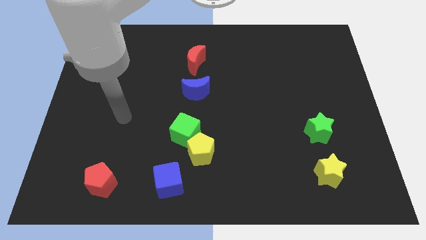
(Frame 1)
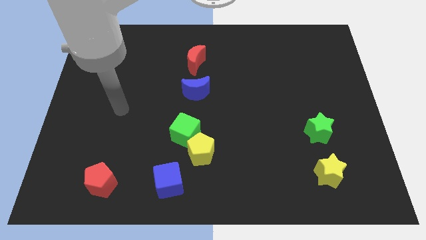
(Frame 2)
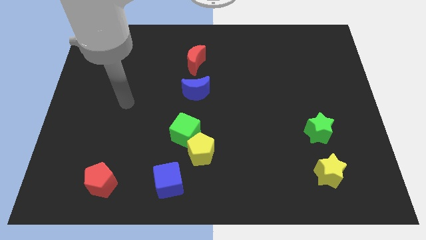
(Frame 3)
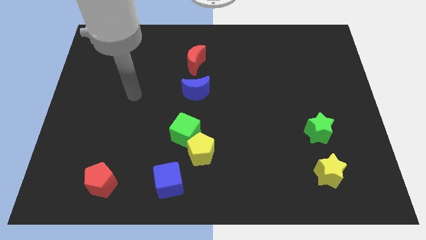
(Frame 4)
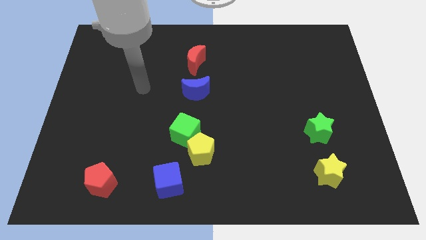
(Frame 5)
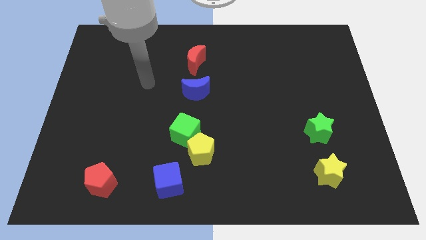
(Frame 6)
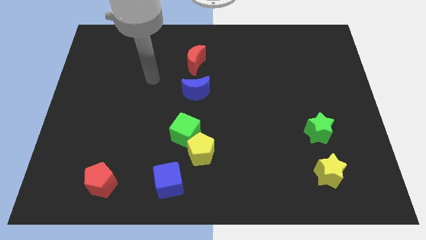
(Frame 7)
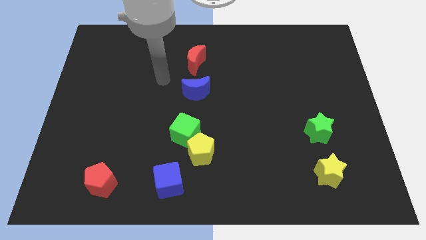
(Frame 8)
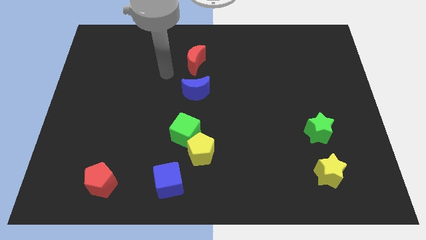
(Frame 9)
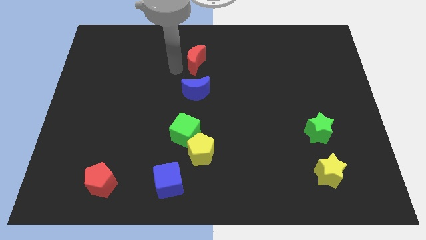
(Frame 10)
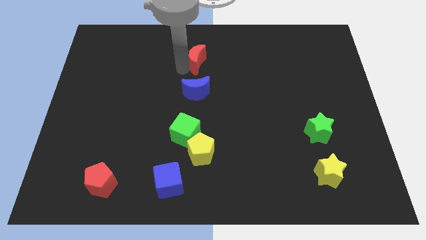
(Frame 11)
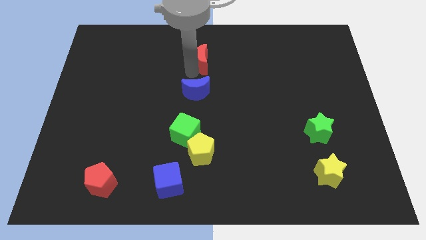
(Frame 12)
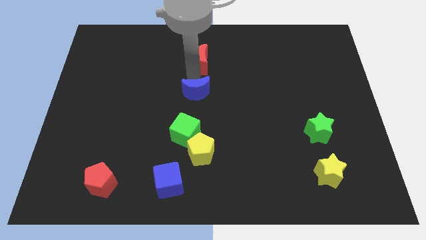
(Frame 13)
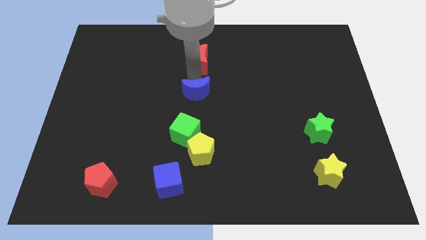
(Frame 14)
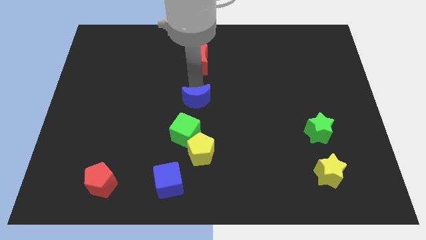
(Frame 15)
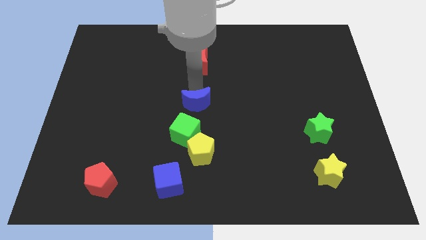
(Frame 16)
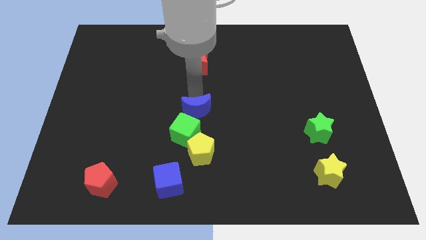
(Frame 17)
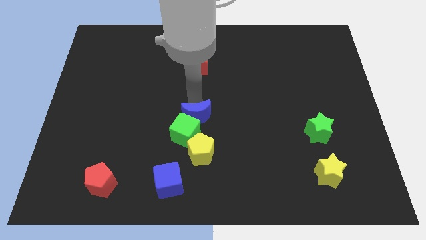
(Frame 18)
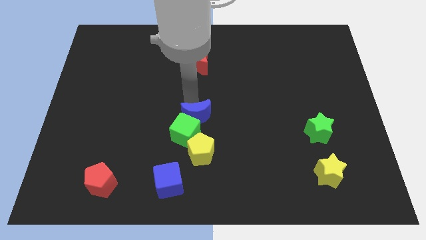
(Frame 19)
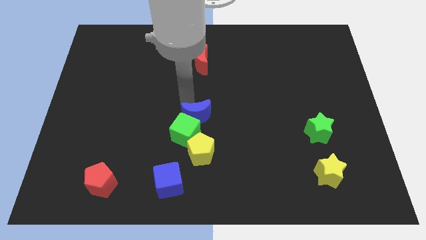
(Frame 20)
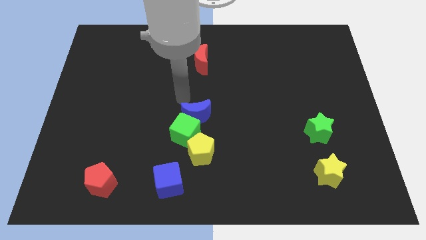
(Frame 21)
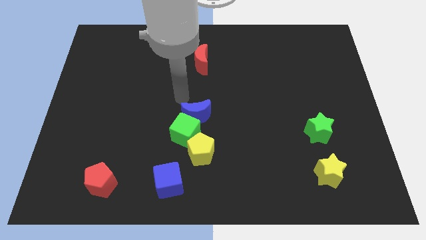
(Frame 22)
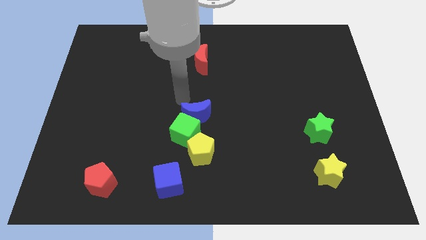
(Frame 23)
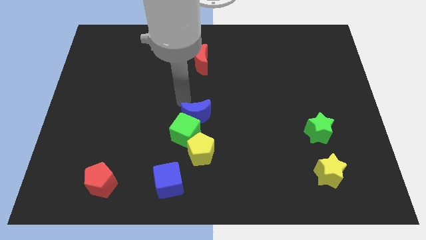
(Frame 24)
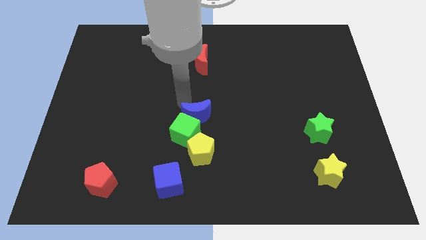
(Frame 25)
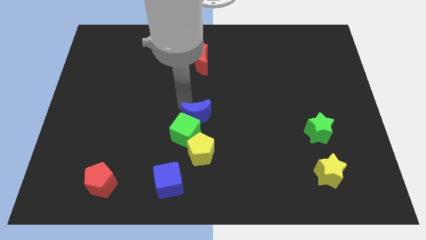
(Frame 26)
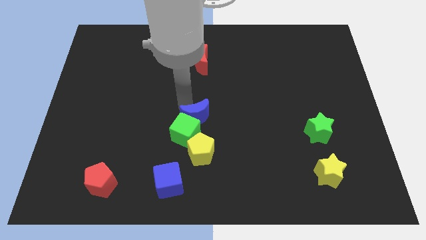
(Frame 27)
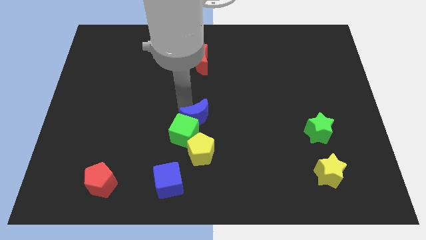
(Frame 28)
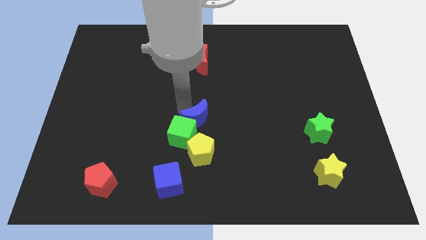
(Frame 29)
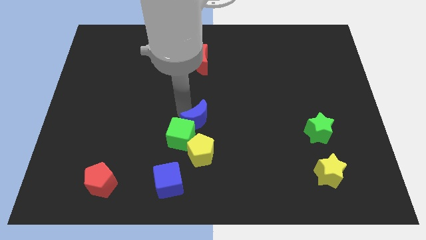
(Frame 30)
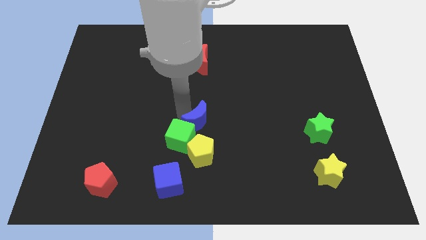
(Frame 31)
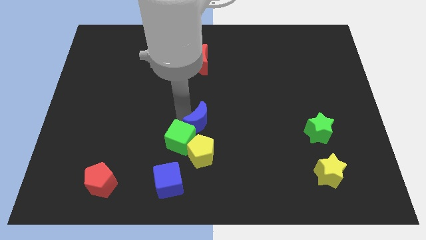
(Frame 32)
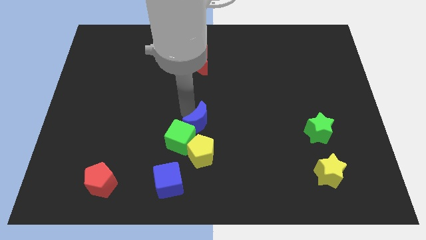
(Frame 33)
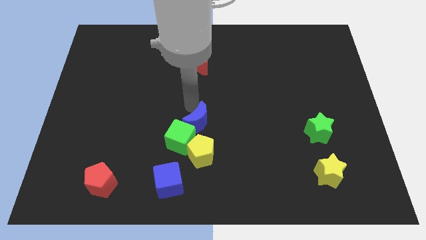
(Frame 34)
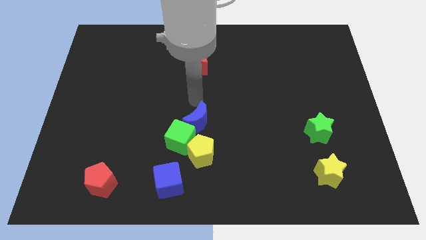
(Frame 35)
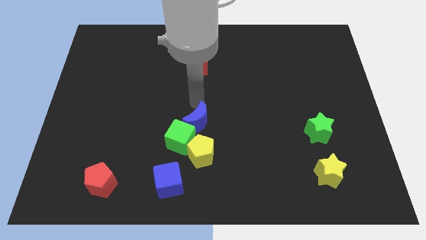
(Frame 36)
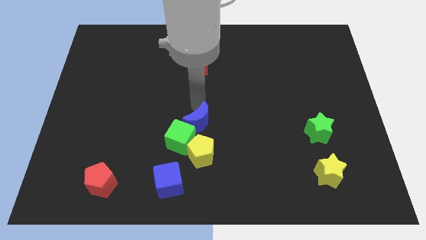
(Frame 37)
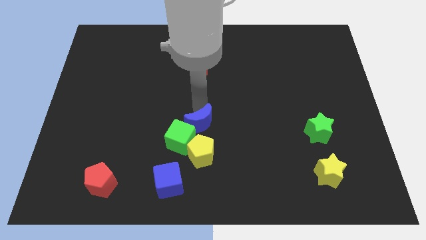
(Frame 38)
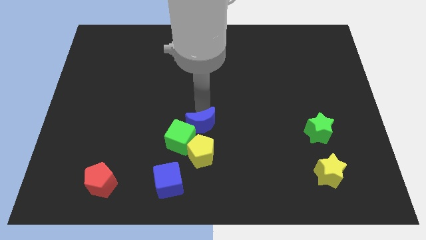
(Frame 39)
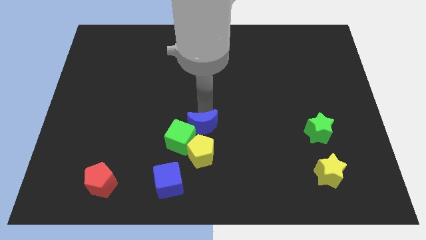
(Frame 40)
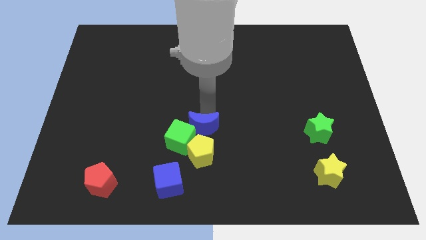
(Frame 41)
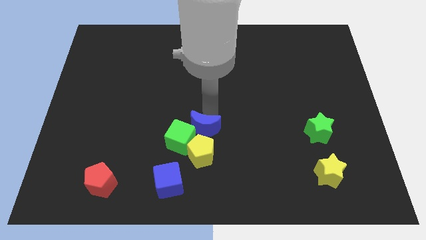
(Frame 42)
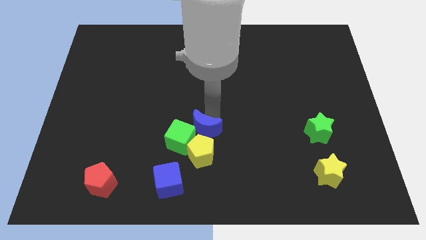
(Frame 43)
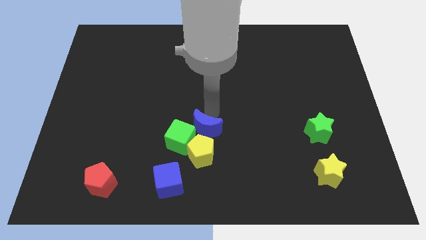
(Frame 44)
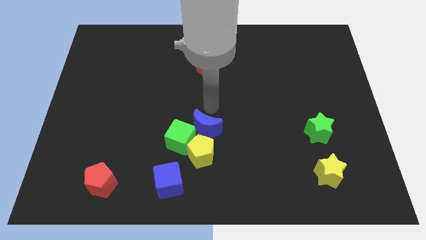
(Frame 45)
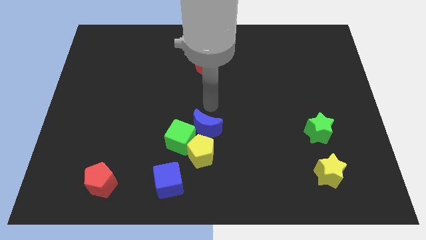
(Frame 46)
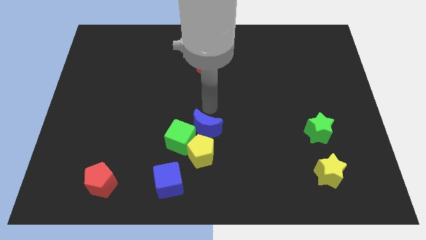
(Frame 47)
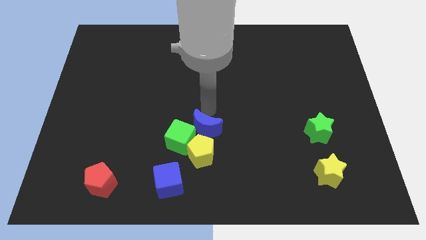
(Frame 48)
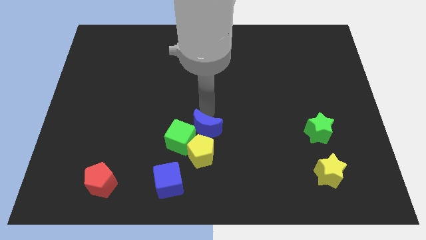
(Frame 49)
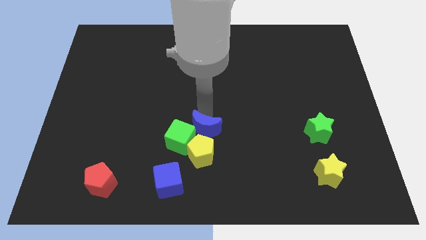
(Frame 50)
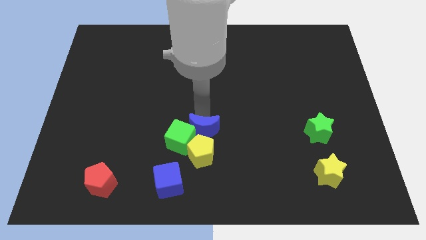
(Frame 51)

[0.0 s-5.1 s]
put the blue moon towards the yellow pentagon

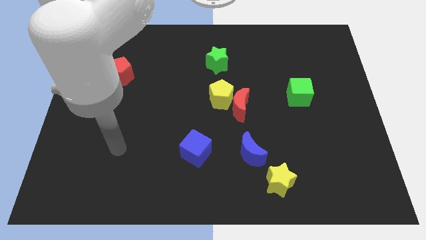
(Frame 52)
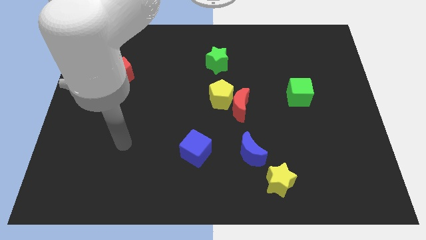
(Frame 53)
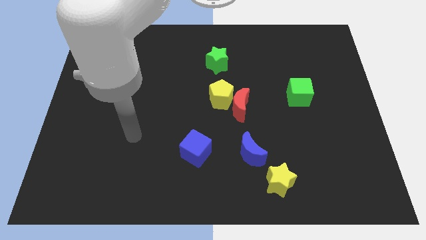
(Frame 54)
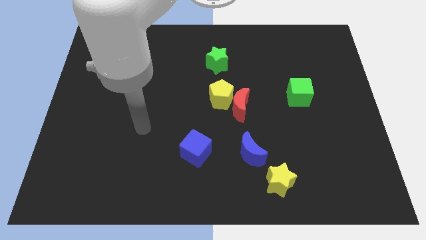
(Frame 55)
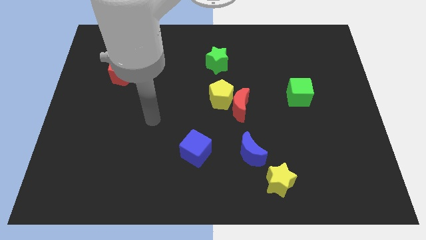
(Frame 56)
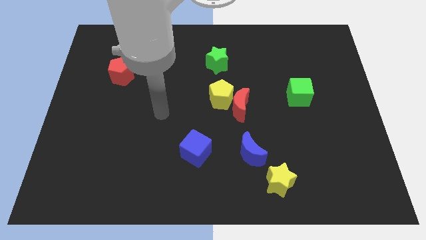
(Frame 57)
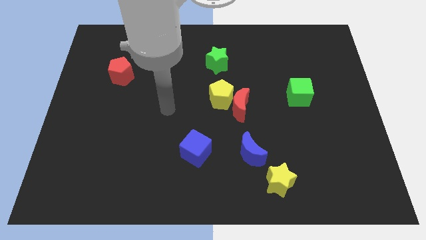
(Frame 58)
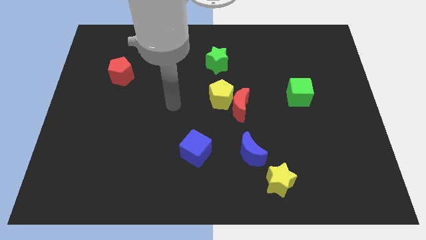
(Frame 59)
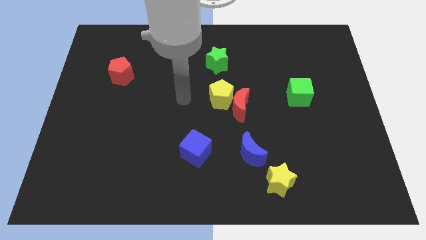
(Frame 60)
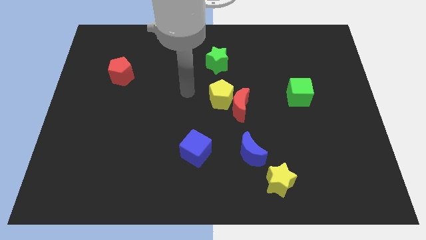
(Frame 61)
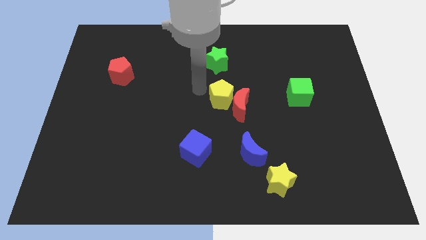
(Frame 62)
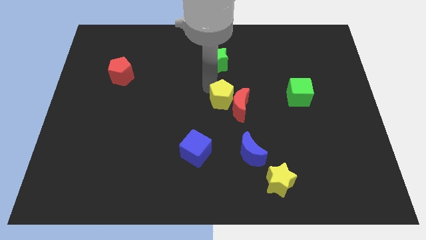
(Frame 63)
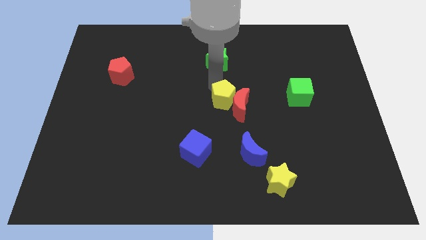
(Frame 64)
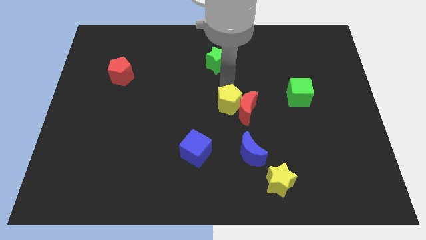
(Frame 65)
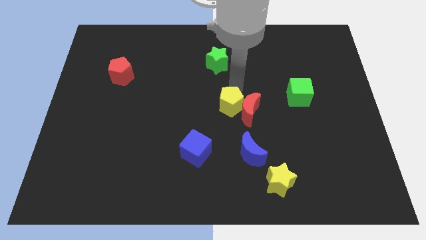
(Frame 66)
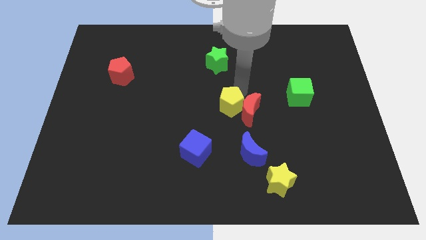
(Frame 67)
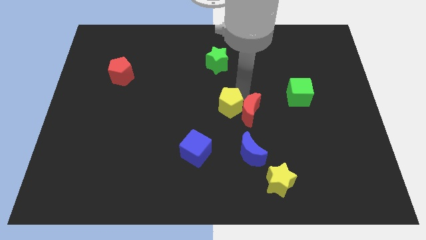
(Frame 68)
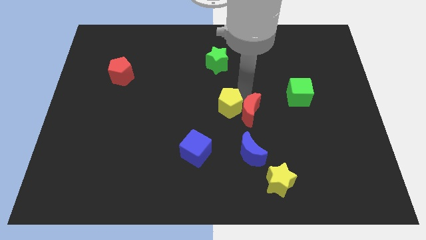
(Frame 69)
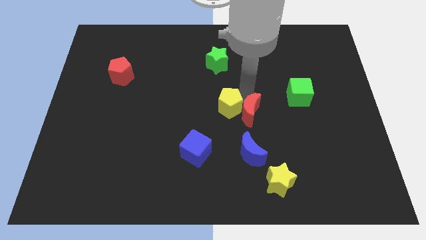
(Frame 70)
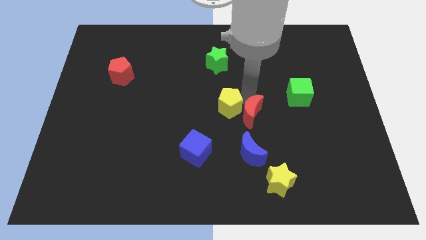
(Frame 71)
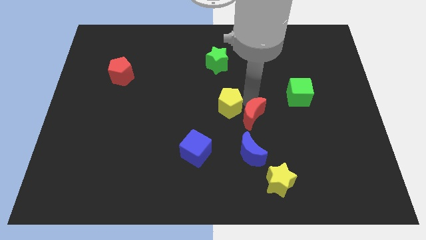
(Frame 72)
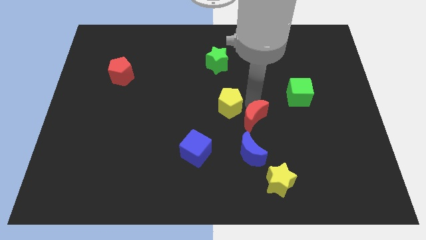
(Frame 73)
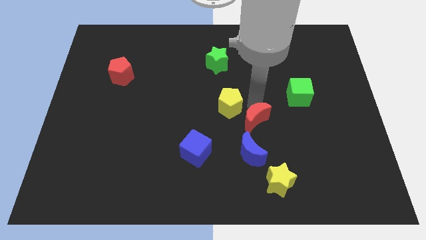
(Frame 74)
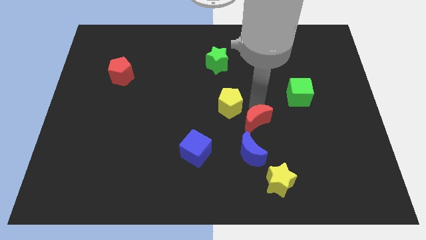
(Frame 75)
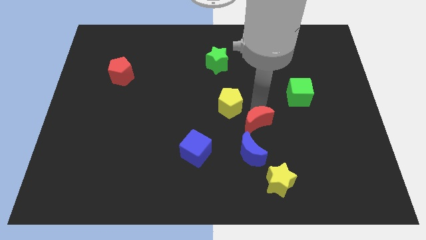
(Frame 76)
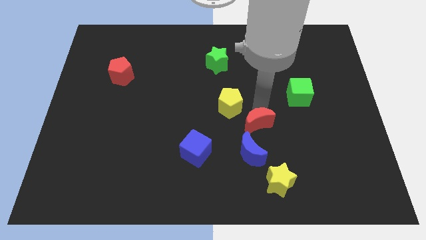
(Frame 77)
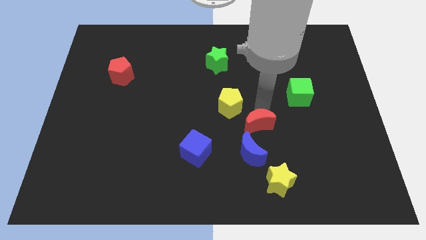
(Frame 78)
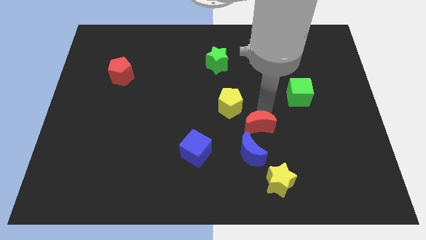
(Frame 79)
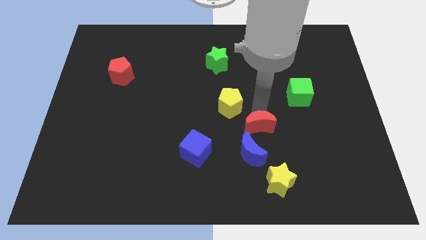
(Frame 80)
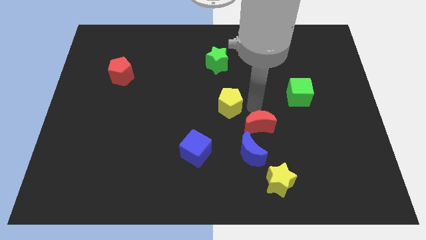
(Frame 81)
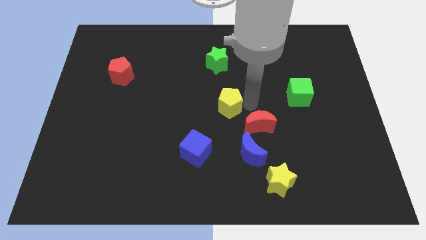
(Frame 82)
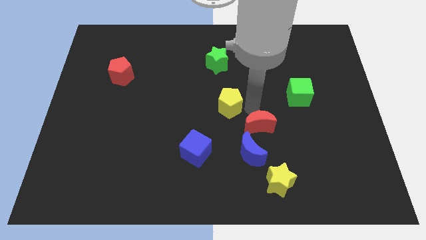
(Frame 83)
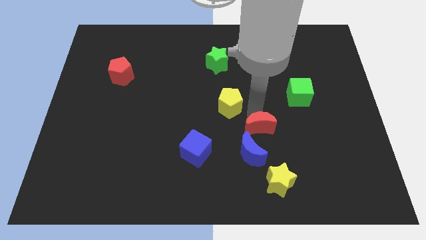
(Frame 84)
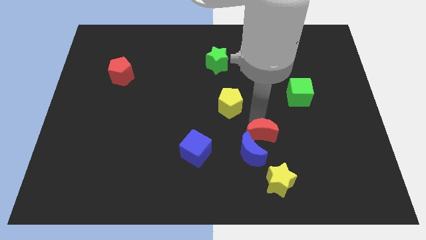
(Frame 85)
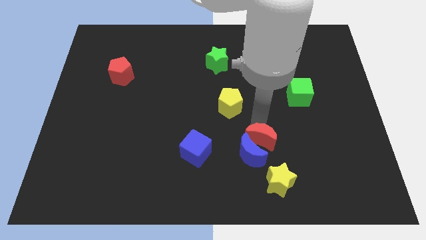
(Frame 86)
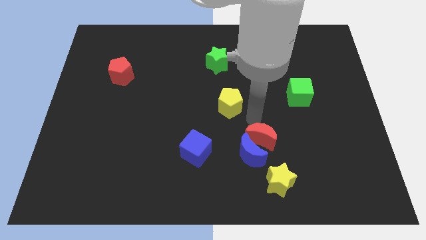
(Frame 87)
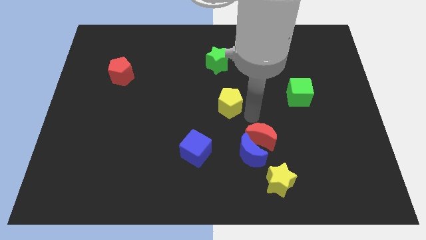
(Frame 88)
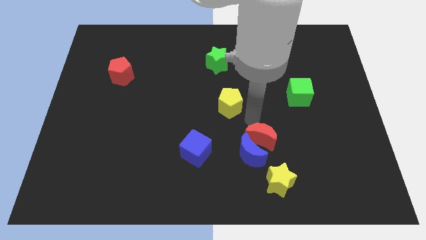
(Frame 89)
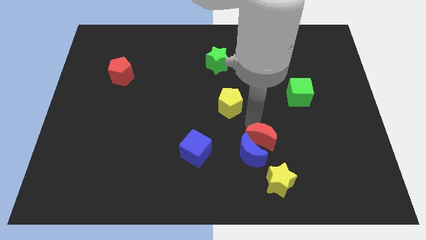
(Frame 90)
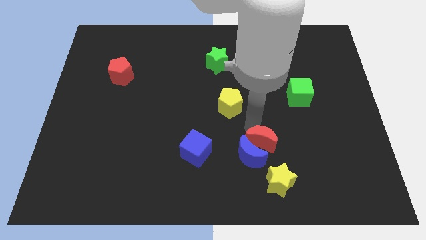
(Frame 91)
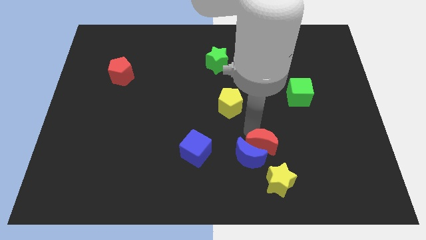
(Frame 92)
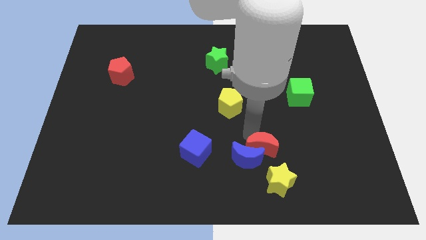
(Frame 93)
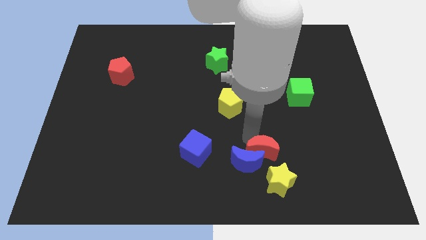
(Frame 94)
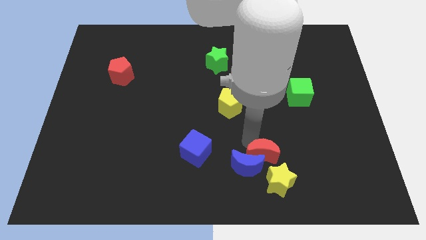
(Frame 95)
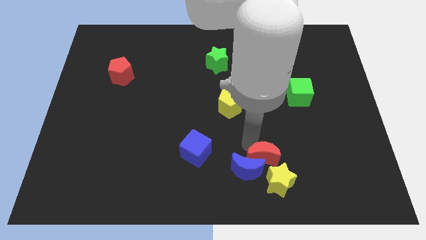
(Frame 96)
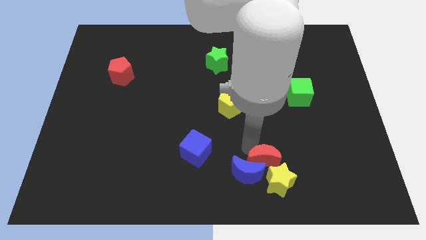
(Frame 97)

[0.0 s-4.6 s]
put the red moon next to the yellow star
